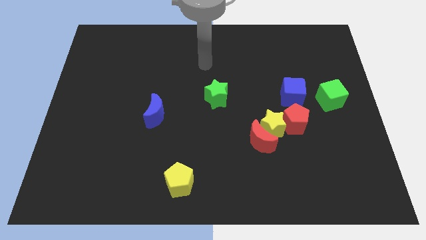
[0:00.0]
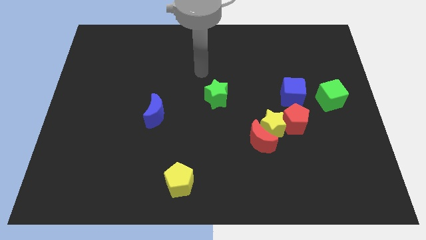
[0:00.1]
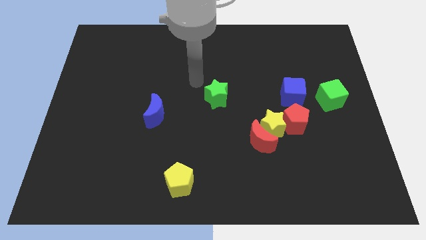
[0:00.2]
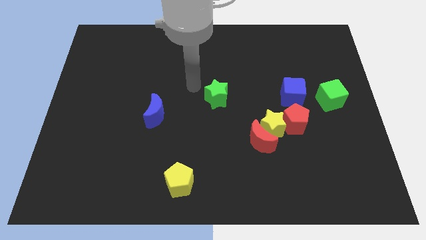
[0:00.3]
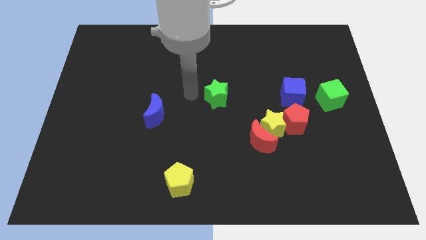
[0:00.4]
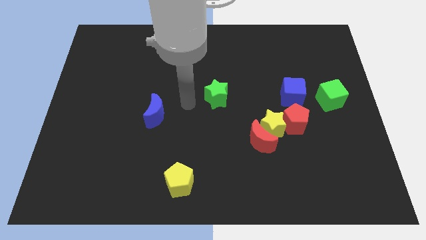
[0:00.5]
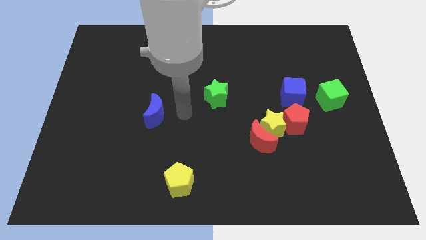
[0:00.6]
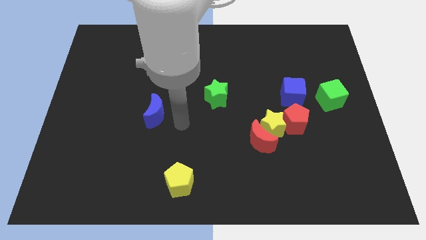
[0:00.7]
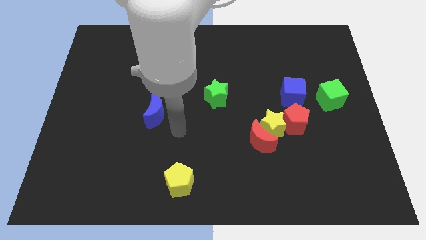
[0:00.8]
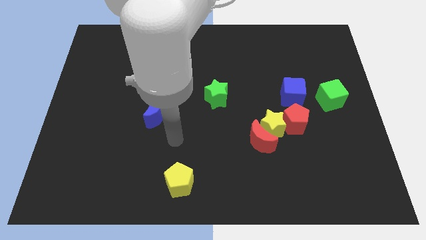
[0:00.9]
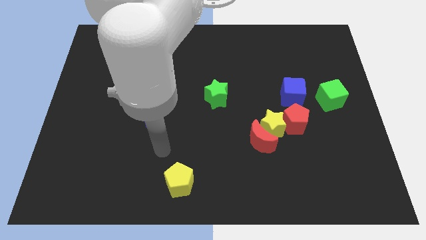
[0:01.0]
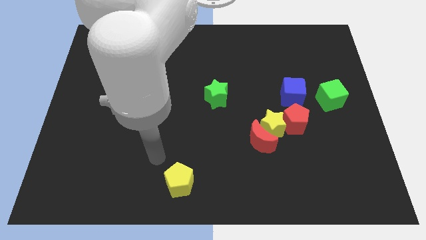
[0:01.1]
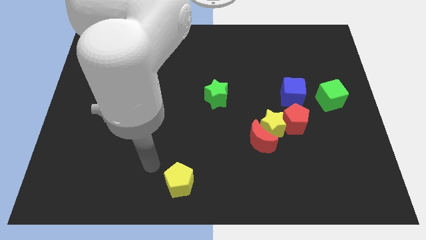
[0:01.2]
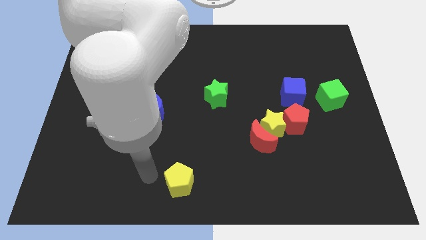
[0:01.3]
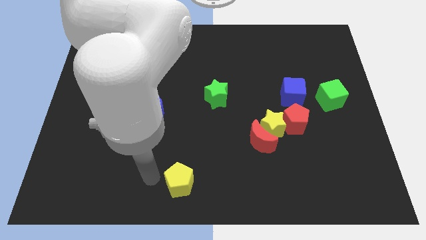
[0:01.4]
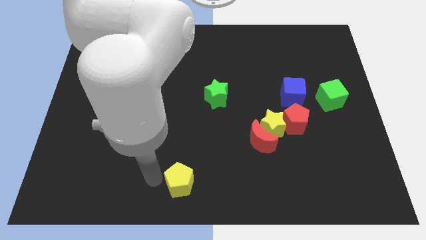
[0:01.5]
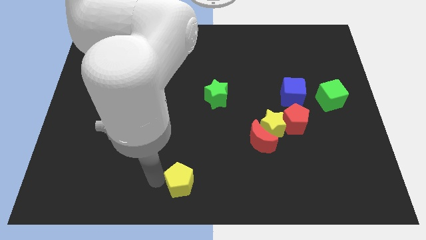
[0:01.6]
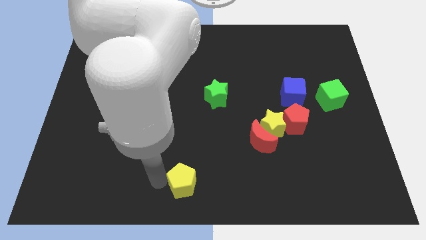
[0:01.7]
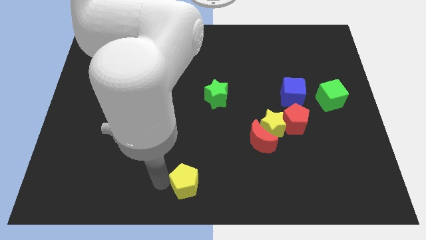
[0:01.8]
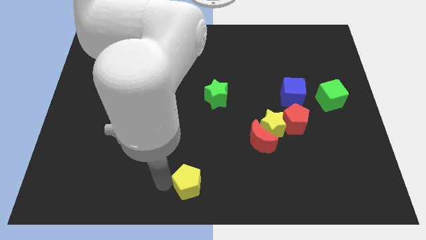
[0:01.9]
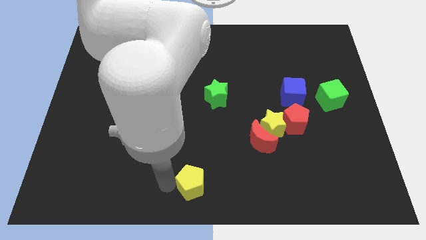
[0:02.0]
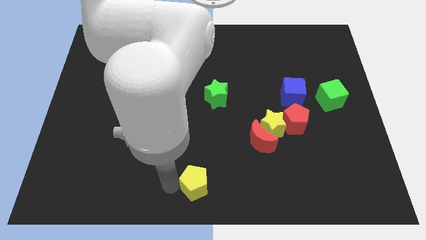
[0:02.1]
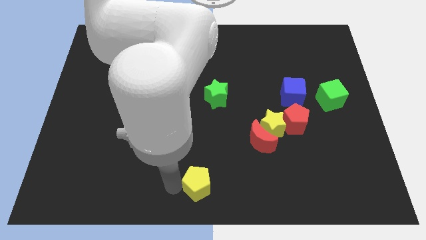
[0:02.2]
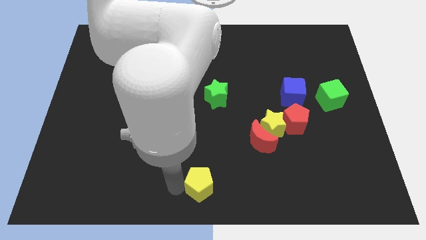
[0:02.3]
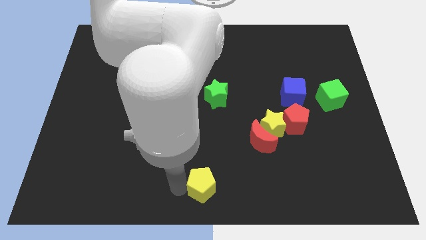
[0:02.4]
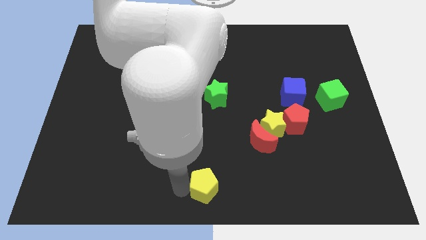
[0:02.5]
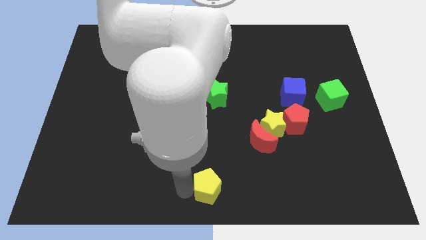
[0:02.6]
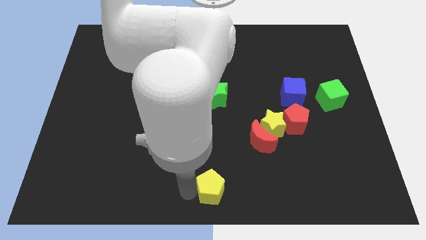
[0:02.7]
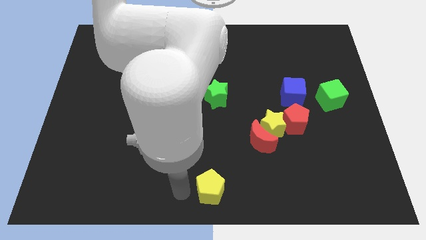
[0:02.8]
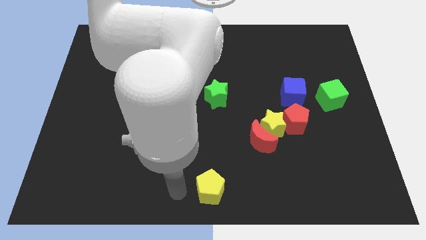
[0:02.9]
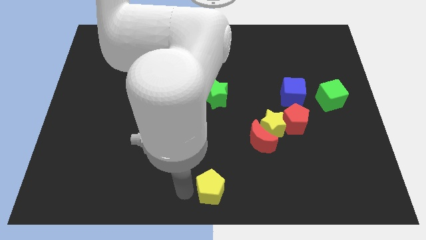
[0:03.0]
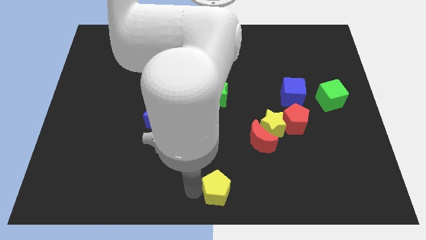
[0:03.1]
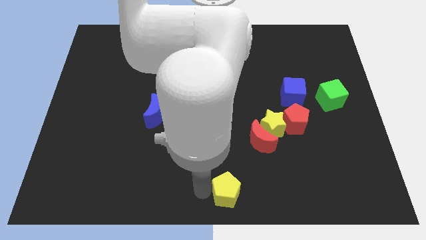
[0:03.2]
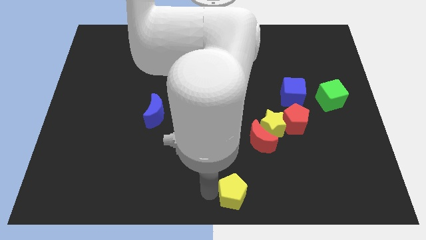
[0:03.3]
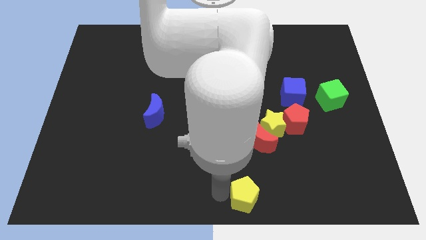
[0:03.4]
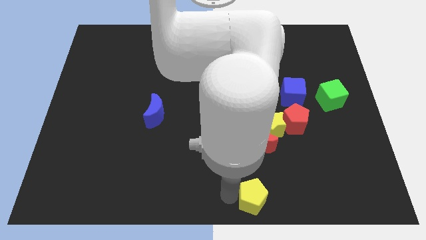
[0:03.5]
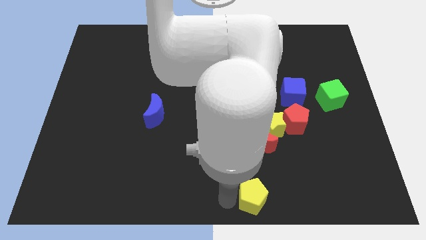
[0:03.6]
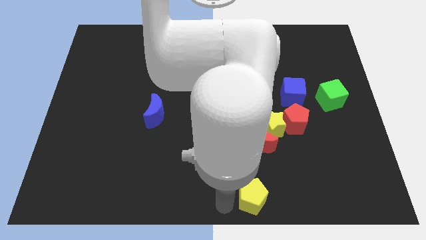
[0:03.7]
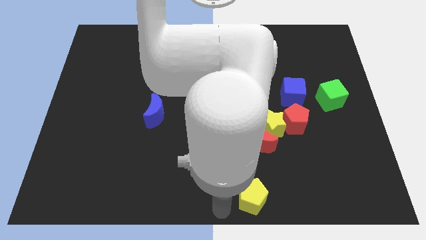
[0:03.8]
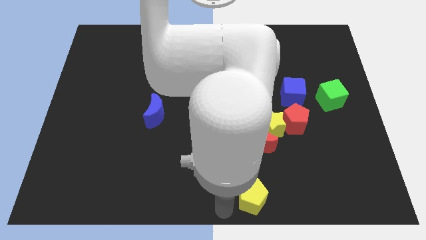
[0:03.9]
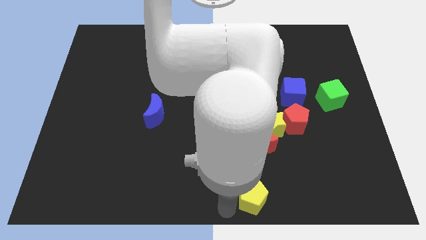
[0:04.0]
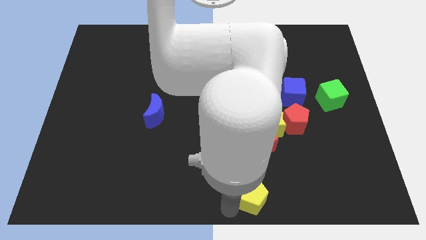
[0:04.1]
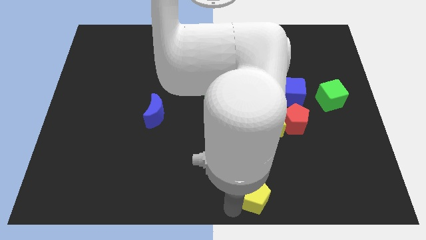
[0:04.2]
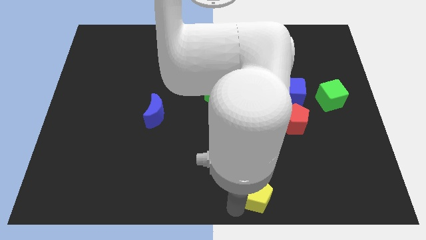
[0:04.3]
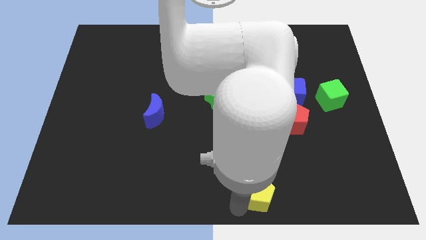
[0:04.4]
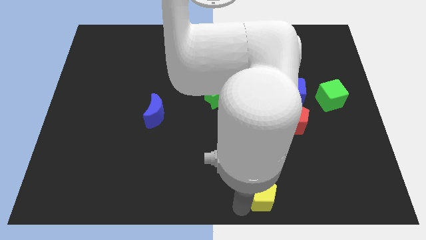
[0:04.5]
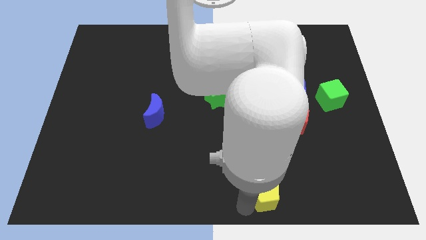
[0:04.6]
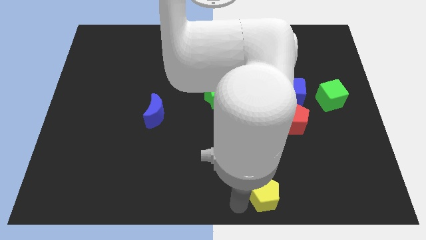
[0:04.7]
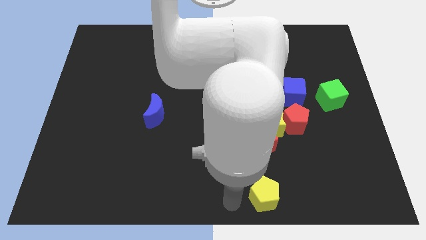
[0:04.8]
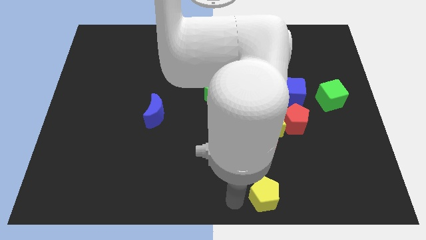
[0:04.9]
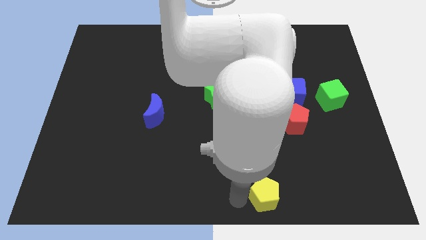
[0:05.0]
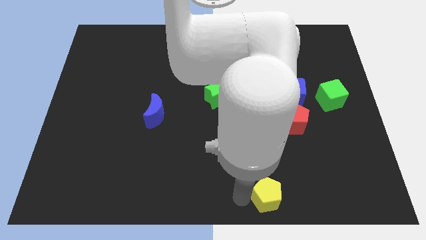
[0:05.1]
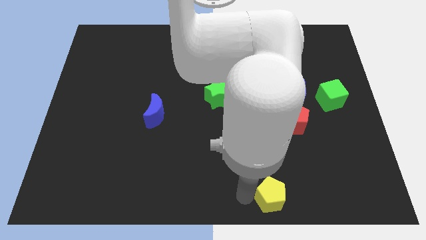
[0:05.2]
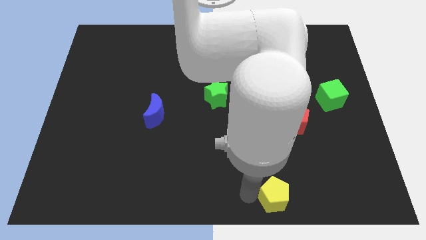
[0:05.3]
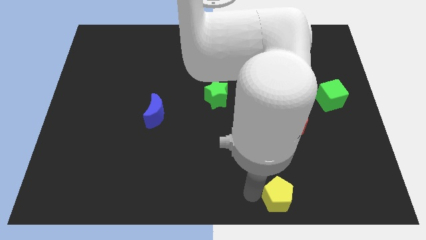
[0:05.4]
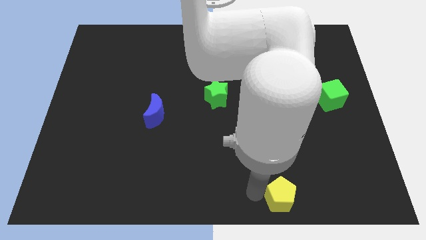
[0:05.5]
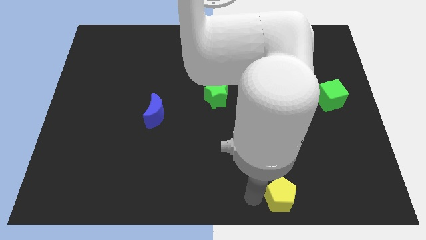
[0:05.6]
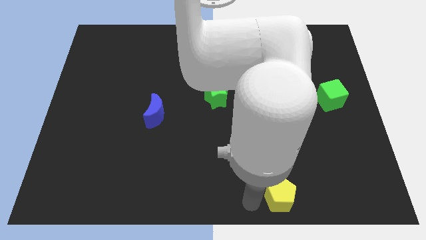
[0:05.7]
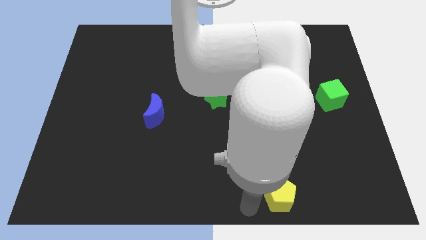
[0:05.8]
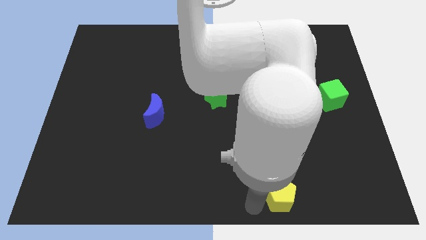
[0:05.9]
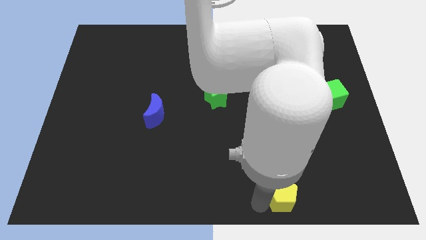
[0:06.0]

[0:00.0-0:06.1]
move the yellow pentagon right

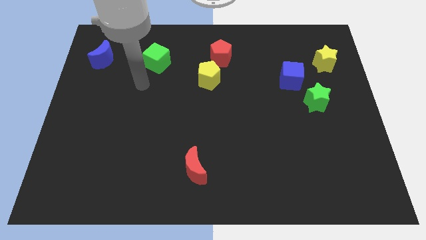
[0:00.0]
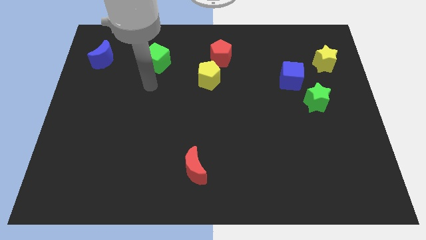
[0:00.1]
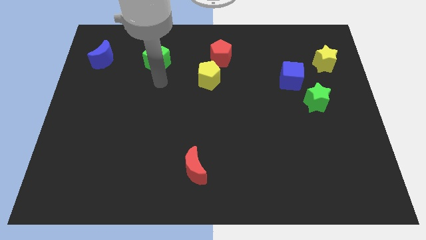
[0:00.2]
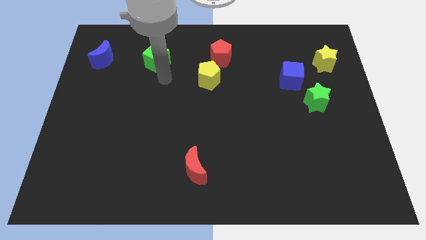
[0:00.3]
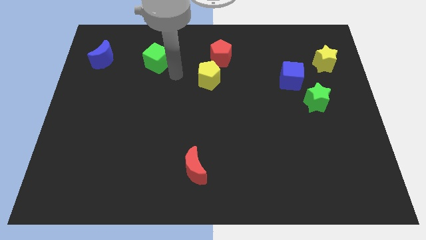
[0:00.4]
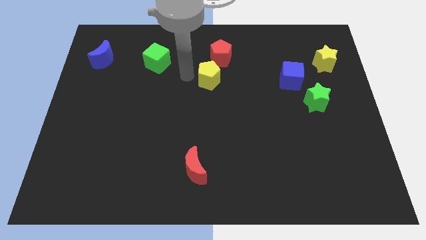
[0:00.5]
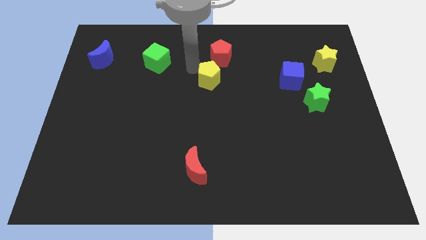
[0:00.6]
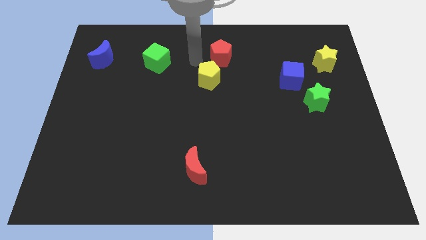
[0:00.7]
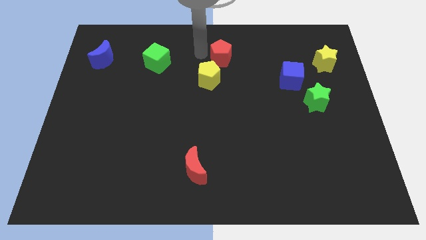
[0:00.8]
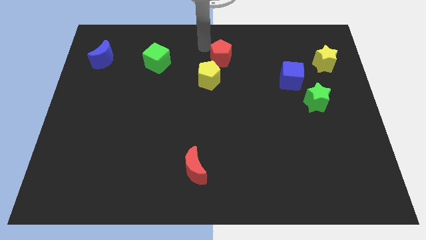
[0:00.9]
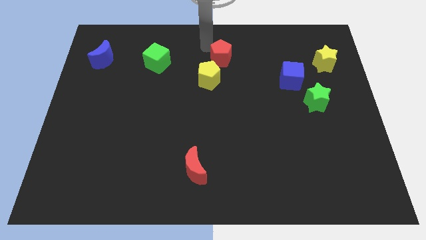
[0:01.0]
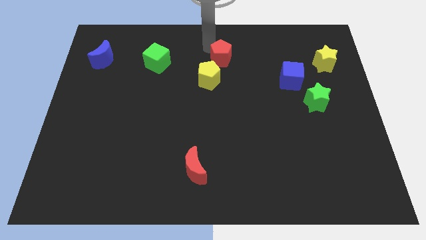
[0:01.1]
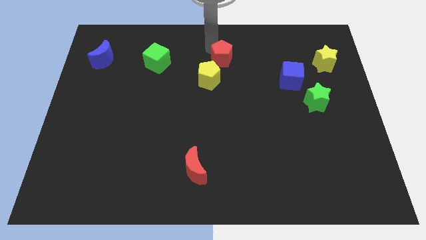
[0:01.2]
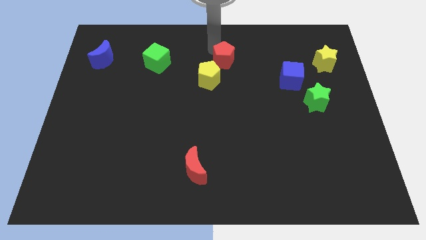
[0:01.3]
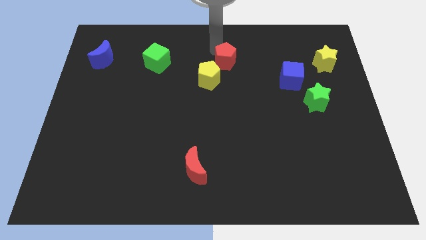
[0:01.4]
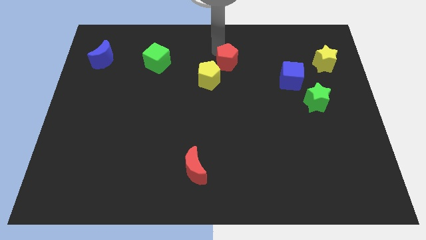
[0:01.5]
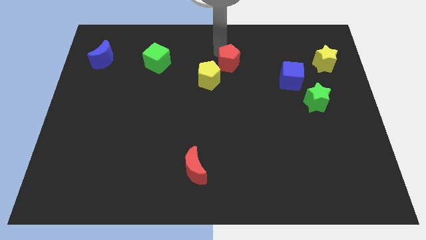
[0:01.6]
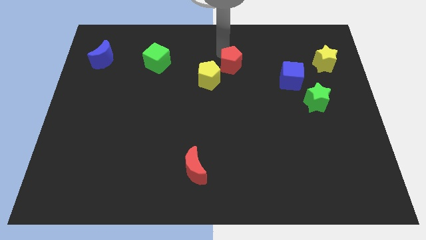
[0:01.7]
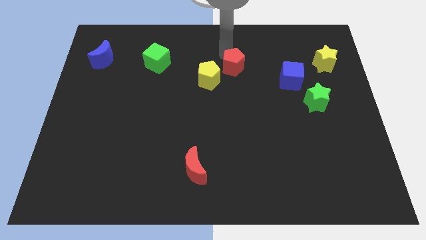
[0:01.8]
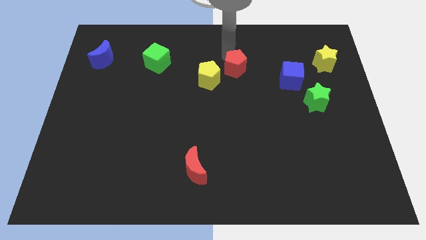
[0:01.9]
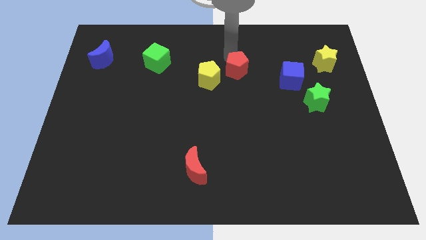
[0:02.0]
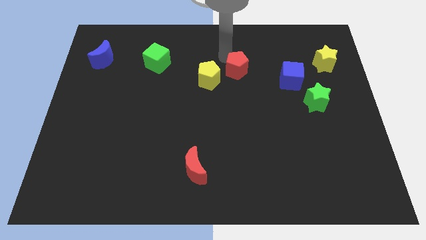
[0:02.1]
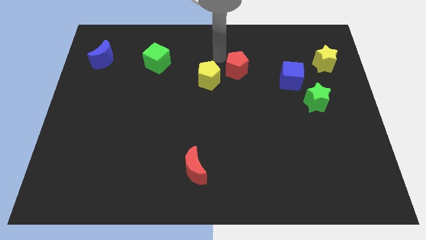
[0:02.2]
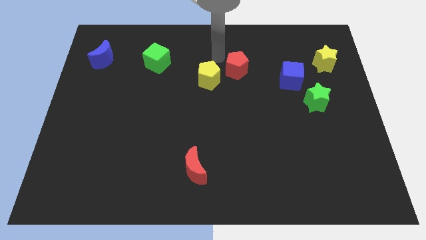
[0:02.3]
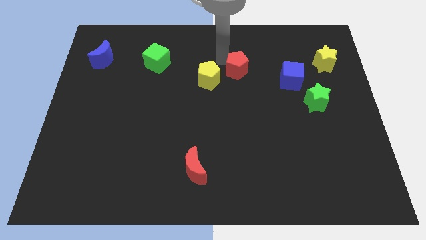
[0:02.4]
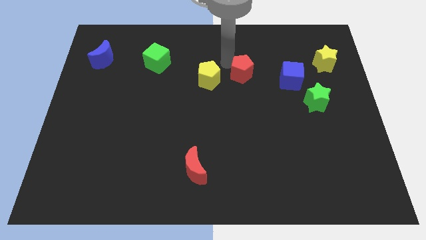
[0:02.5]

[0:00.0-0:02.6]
push the red pentagon downwards and right slightly
